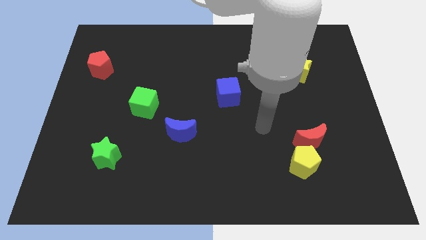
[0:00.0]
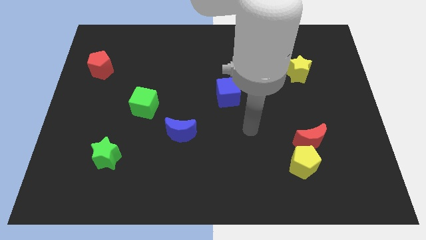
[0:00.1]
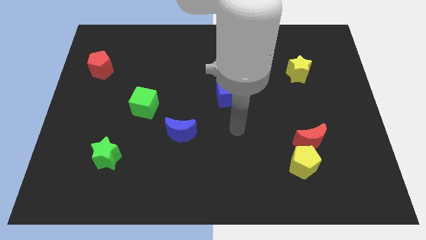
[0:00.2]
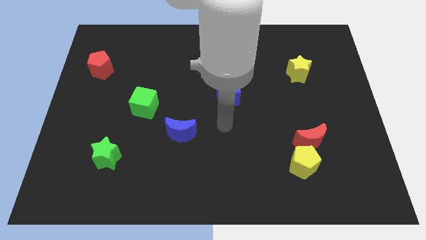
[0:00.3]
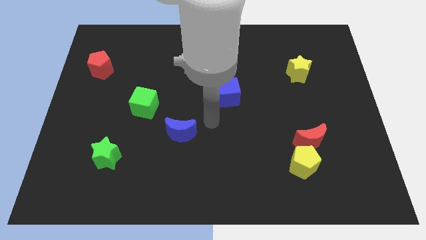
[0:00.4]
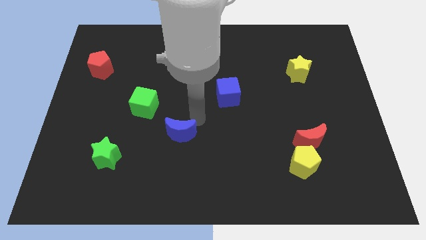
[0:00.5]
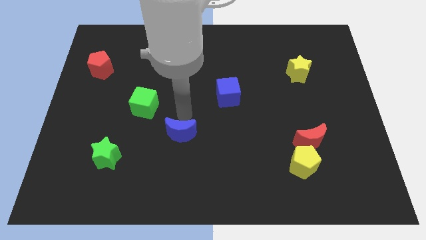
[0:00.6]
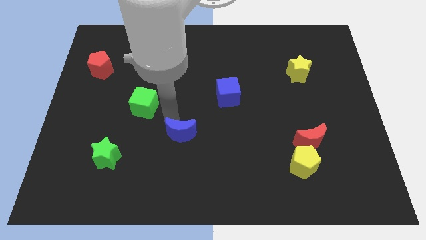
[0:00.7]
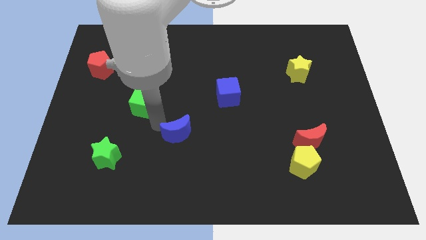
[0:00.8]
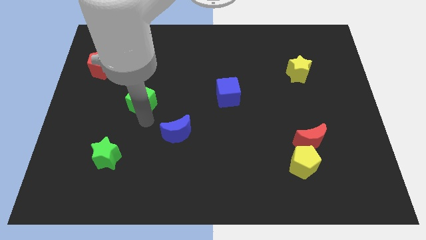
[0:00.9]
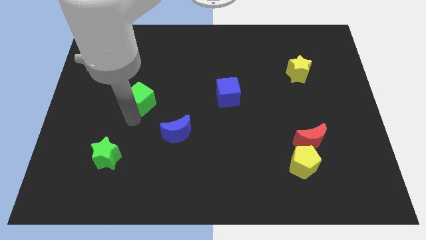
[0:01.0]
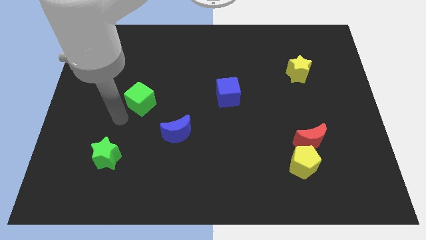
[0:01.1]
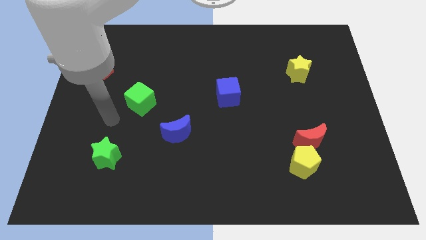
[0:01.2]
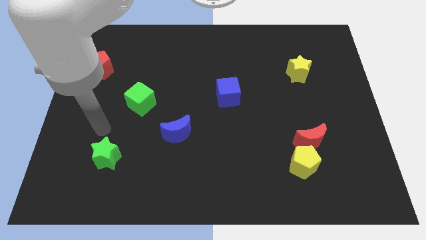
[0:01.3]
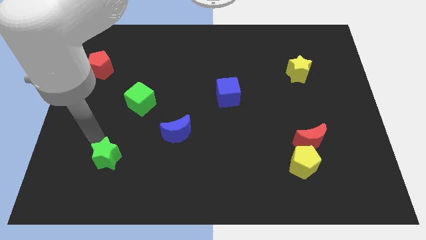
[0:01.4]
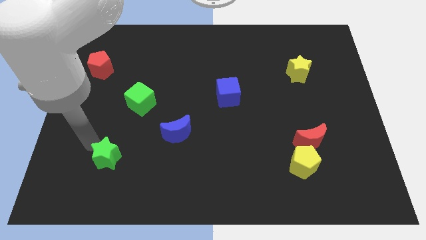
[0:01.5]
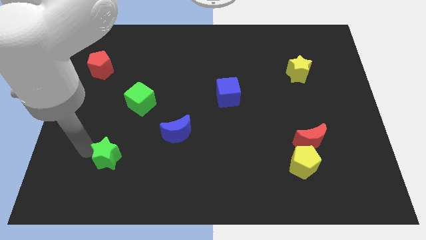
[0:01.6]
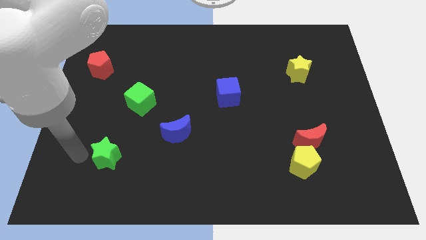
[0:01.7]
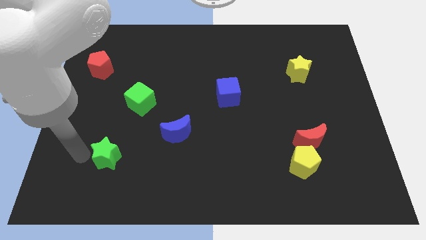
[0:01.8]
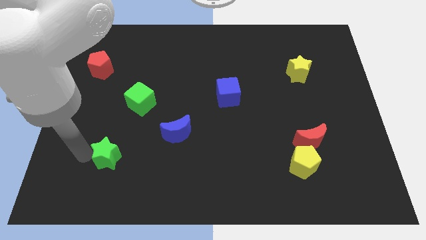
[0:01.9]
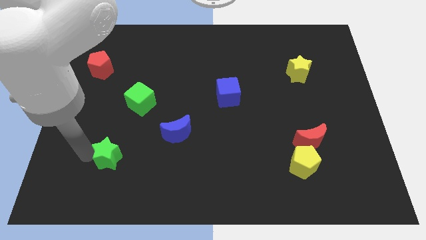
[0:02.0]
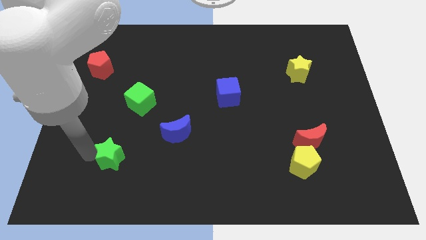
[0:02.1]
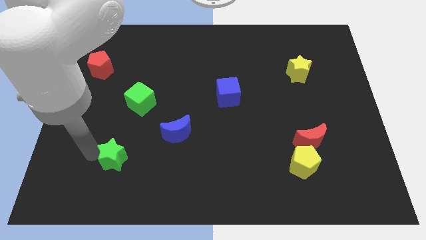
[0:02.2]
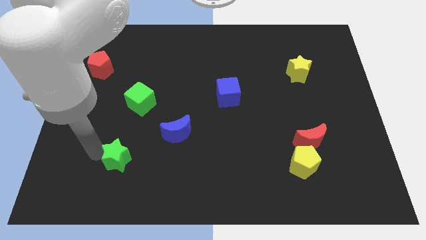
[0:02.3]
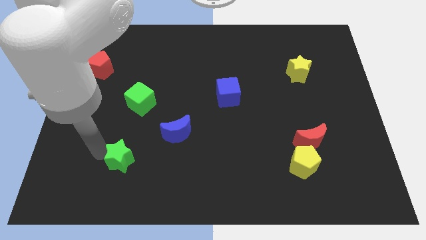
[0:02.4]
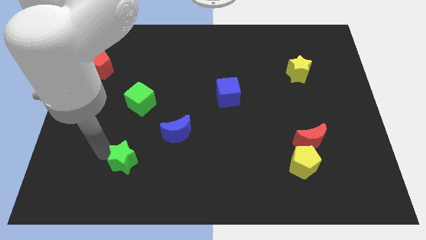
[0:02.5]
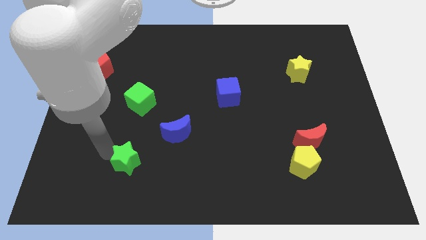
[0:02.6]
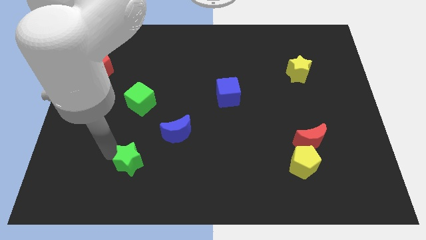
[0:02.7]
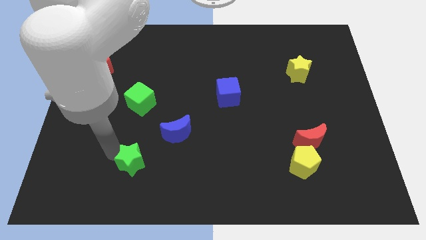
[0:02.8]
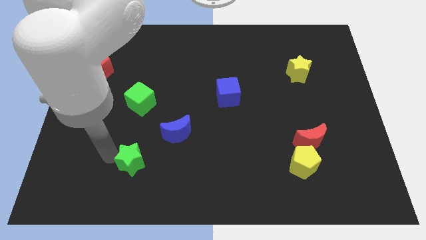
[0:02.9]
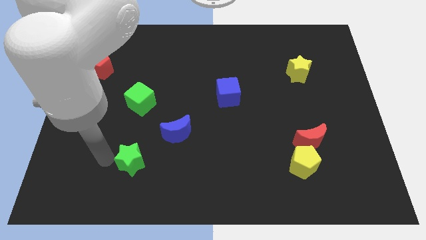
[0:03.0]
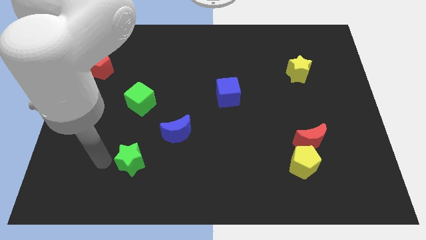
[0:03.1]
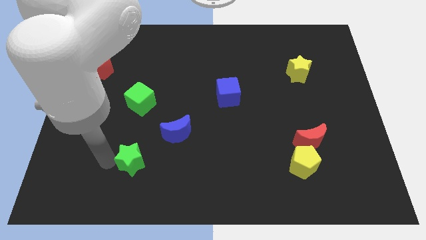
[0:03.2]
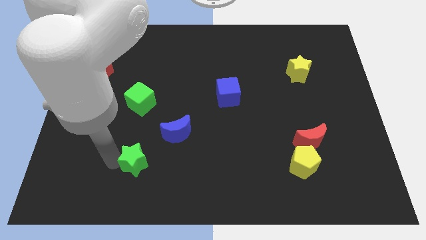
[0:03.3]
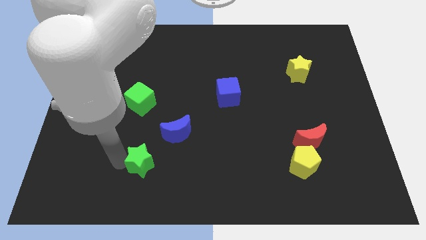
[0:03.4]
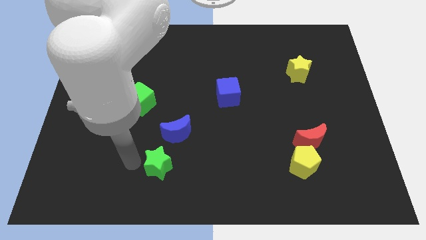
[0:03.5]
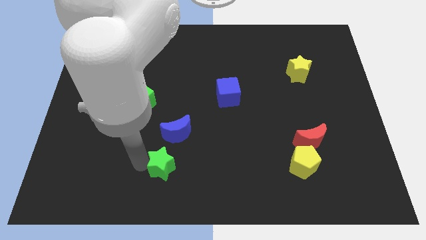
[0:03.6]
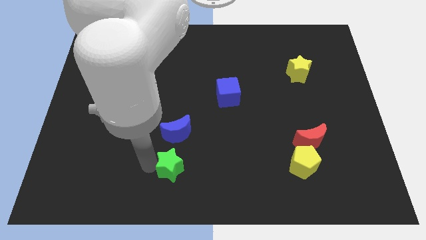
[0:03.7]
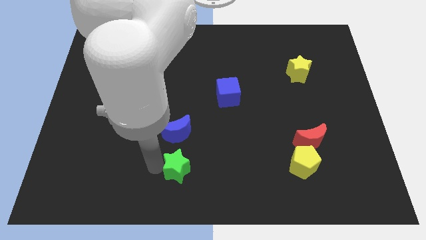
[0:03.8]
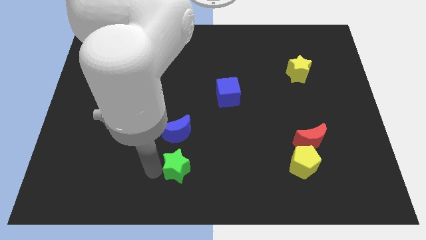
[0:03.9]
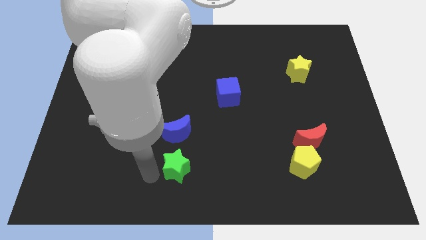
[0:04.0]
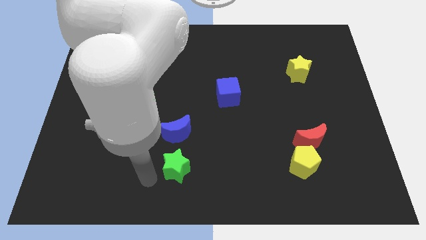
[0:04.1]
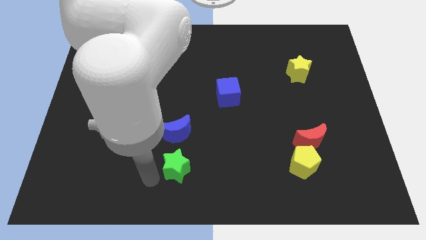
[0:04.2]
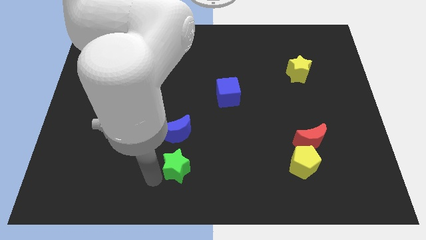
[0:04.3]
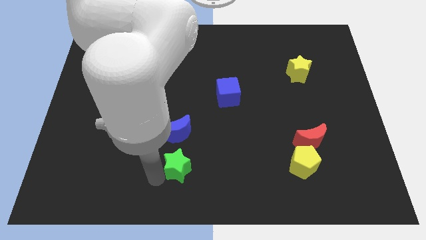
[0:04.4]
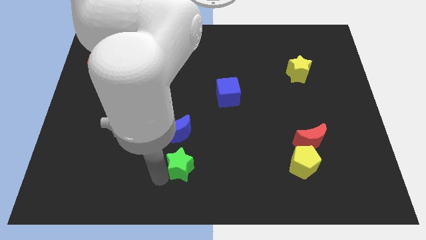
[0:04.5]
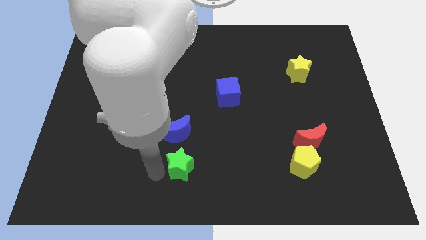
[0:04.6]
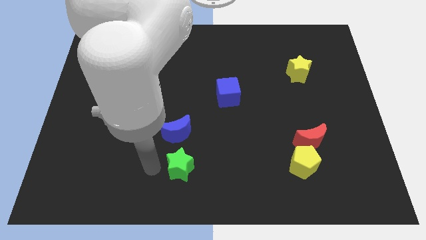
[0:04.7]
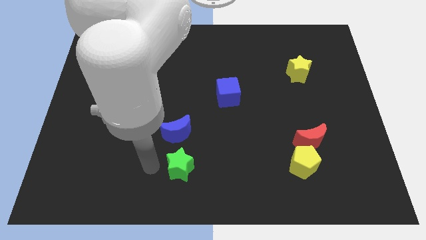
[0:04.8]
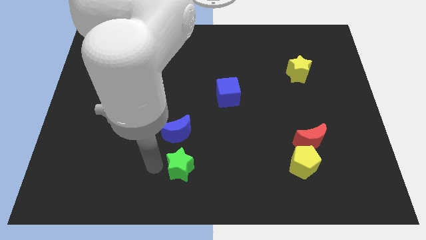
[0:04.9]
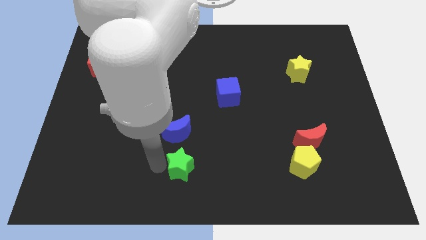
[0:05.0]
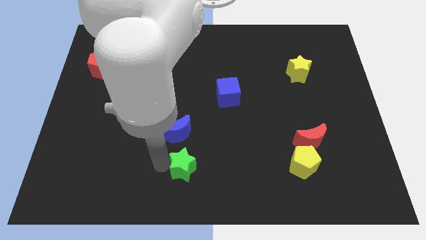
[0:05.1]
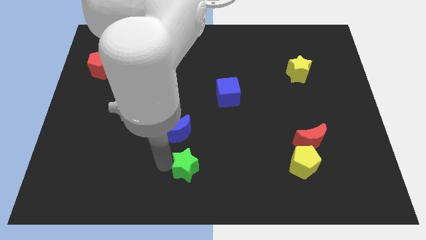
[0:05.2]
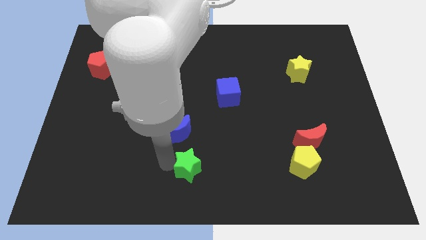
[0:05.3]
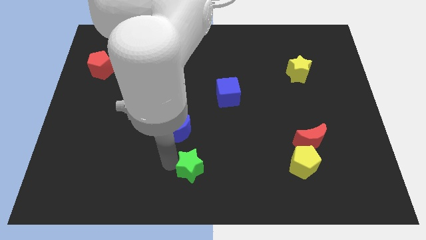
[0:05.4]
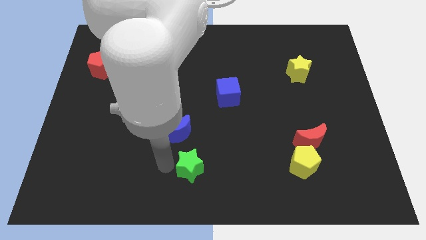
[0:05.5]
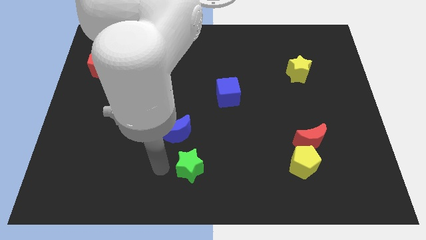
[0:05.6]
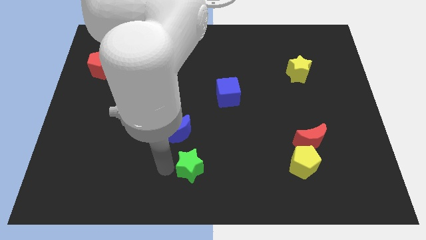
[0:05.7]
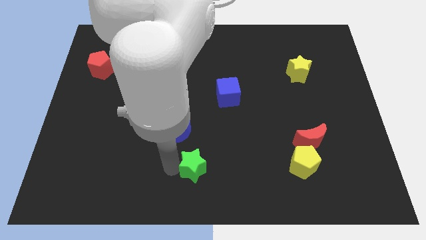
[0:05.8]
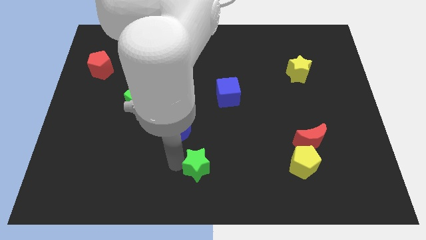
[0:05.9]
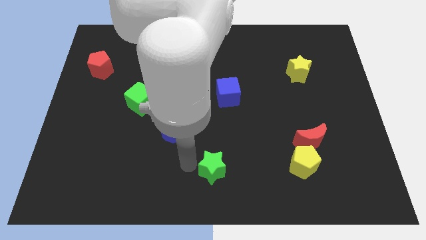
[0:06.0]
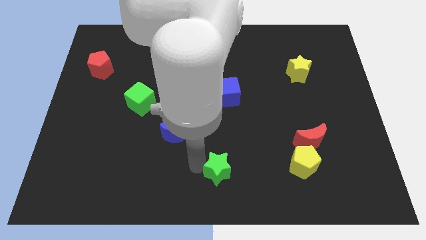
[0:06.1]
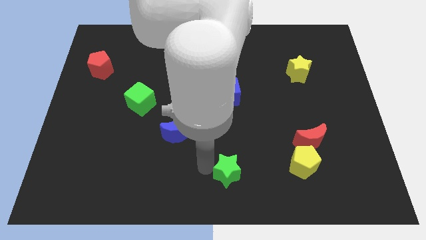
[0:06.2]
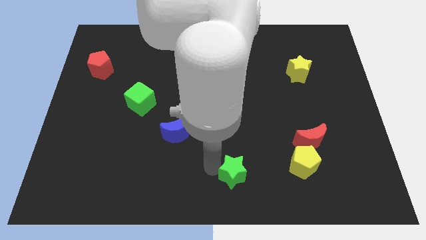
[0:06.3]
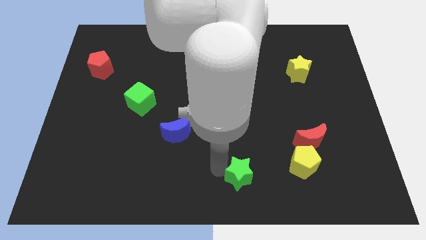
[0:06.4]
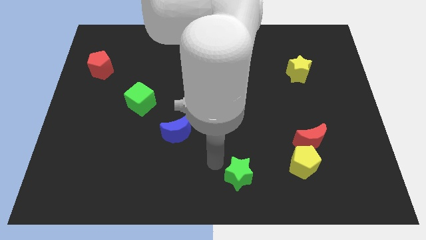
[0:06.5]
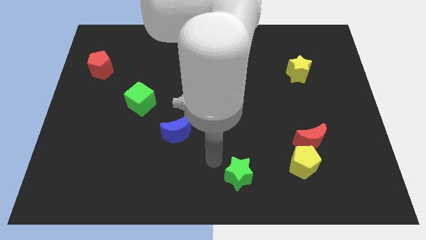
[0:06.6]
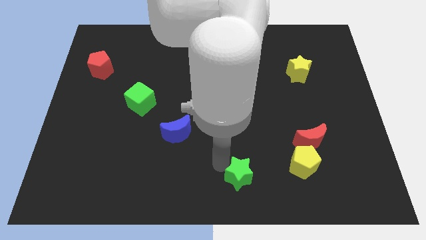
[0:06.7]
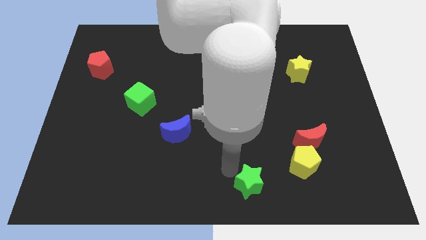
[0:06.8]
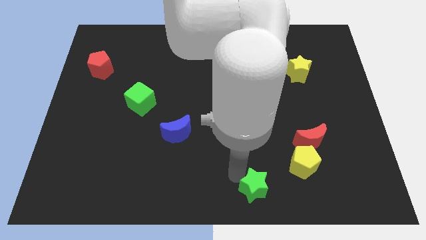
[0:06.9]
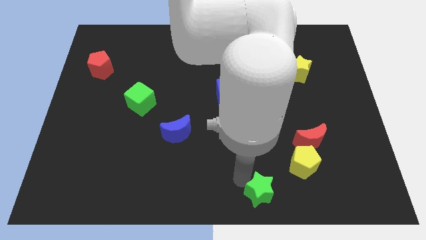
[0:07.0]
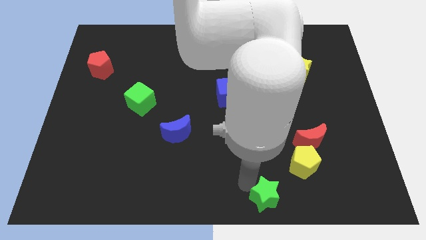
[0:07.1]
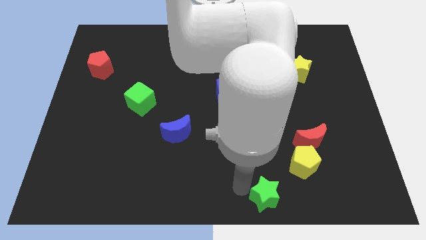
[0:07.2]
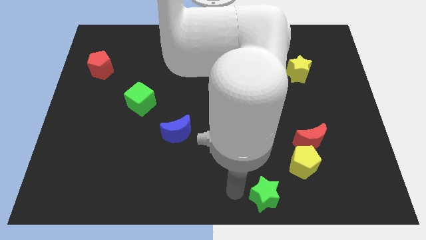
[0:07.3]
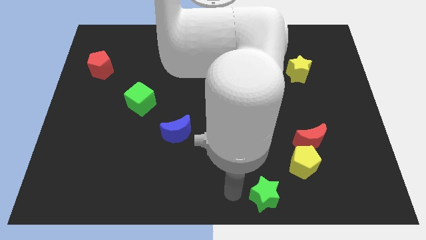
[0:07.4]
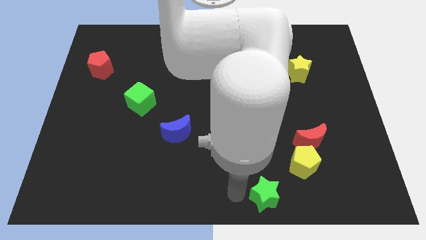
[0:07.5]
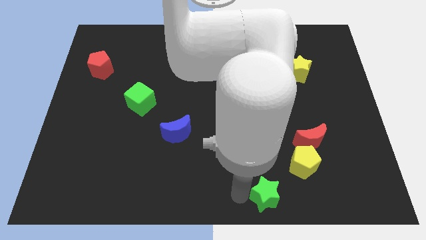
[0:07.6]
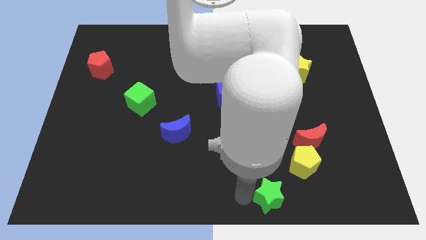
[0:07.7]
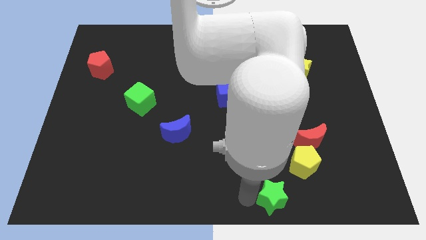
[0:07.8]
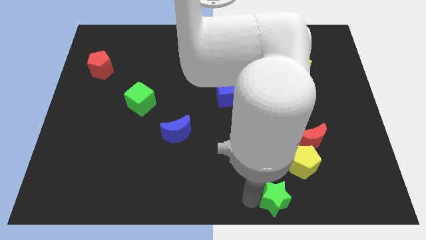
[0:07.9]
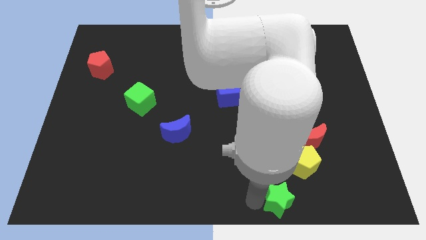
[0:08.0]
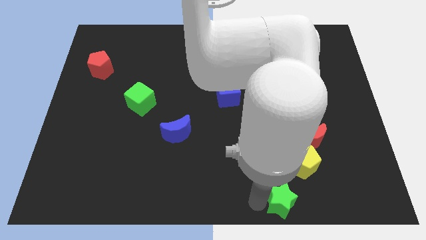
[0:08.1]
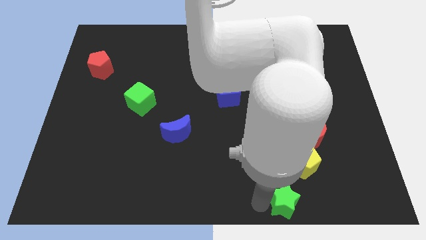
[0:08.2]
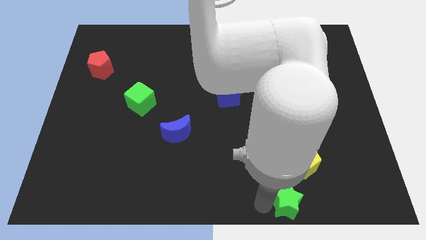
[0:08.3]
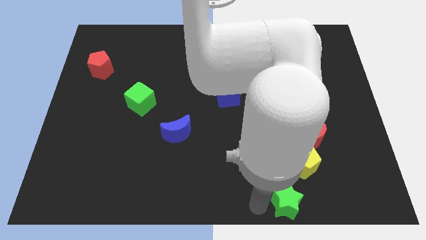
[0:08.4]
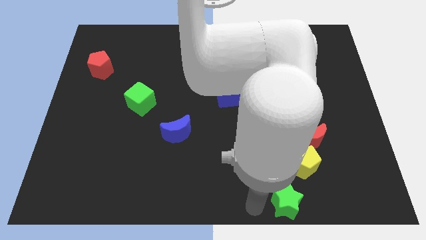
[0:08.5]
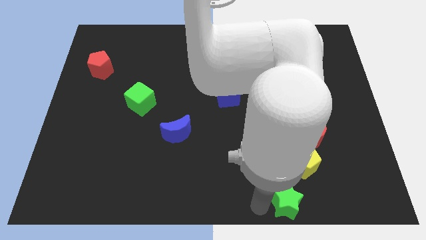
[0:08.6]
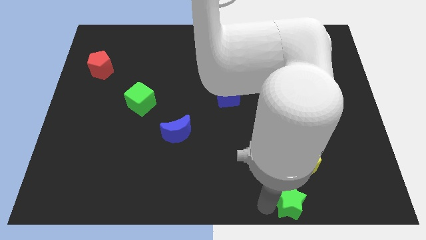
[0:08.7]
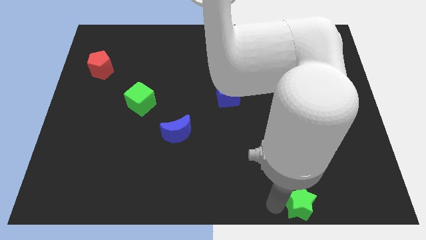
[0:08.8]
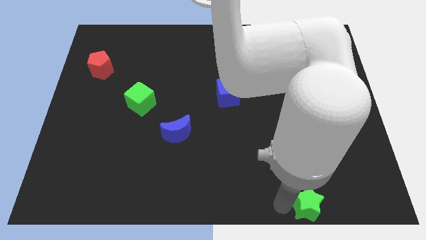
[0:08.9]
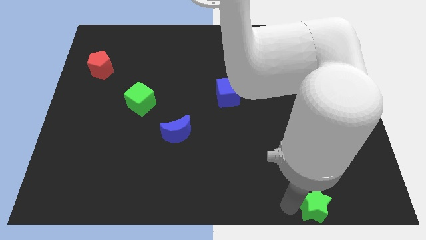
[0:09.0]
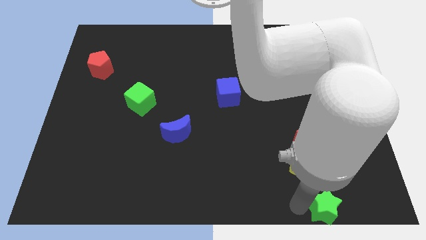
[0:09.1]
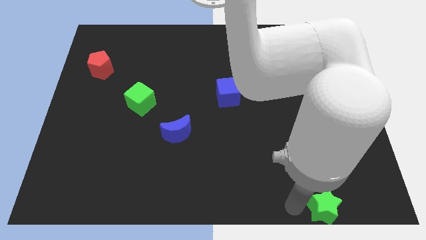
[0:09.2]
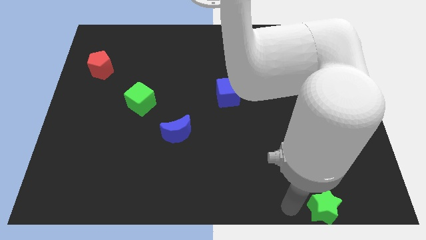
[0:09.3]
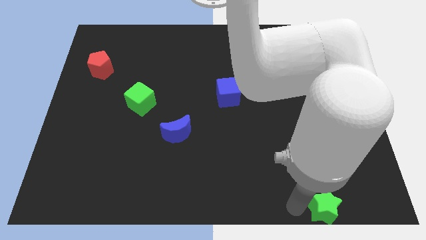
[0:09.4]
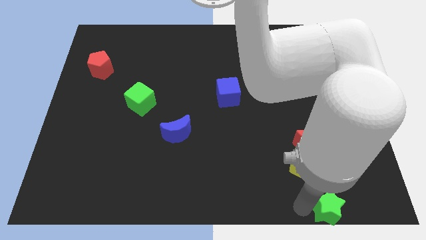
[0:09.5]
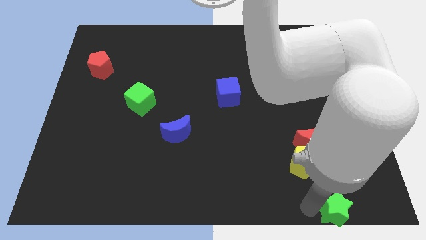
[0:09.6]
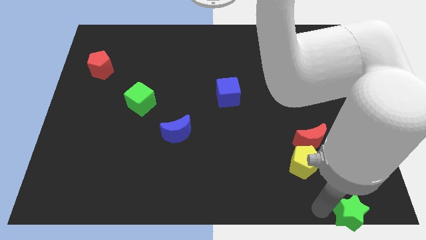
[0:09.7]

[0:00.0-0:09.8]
put the green star to the bottom right
